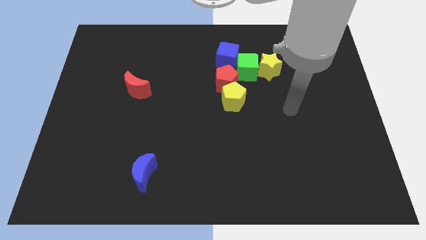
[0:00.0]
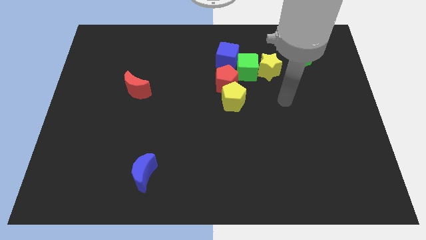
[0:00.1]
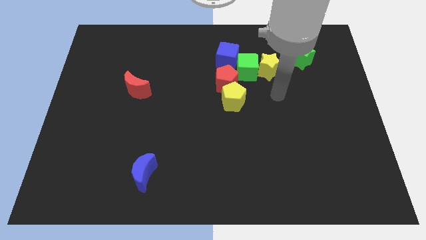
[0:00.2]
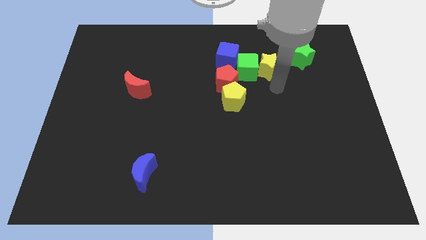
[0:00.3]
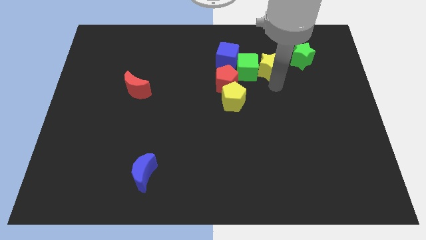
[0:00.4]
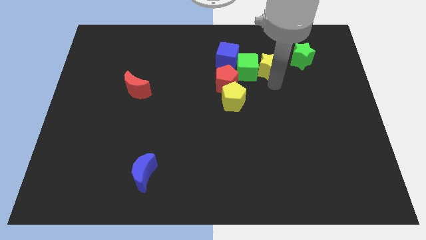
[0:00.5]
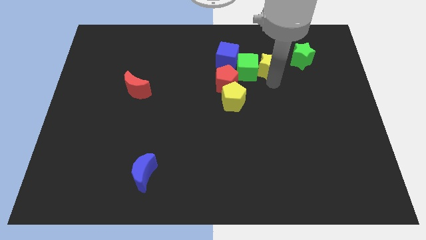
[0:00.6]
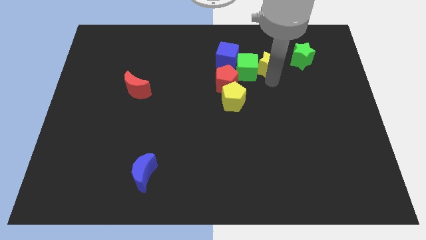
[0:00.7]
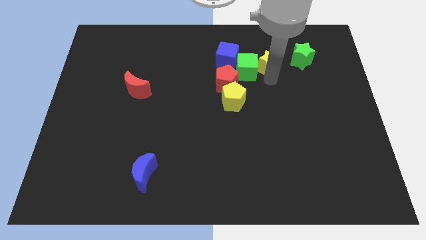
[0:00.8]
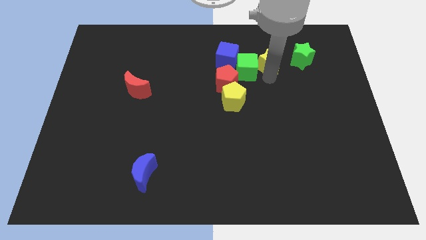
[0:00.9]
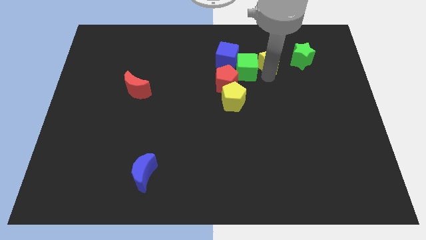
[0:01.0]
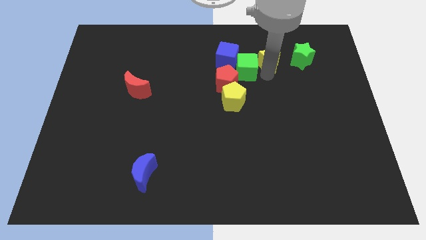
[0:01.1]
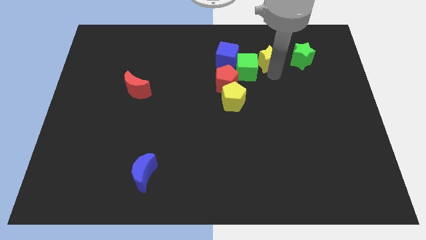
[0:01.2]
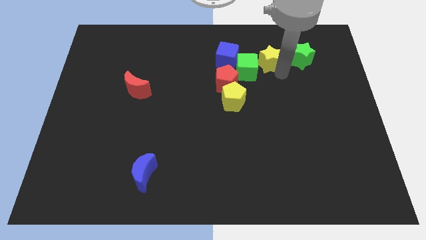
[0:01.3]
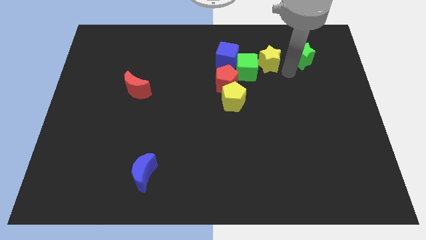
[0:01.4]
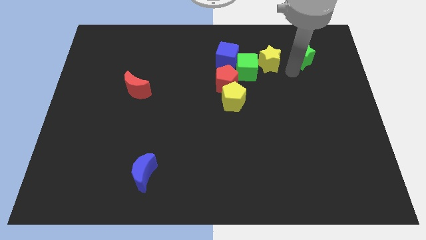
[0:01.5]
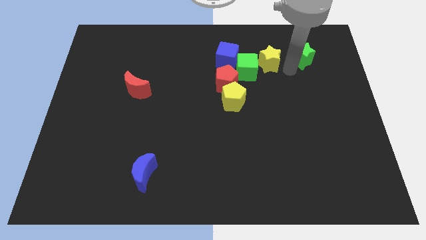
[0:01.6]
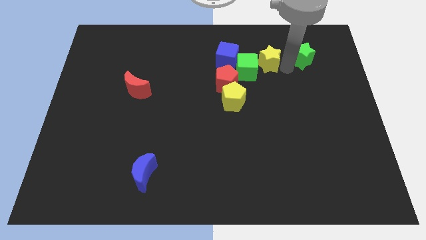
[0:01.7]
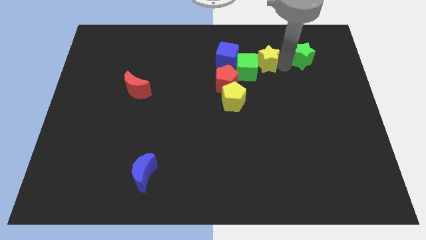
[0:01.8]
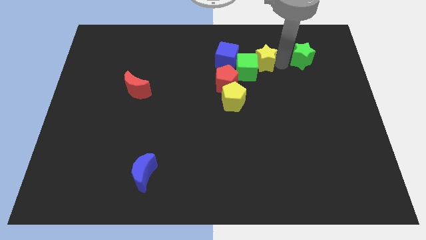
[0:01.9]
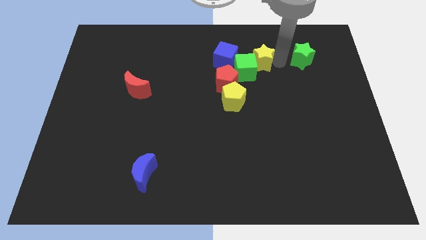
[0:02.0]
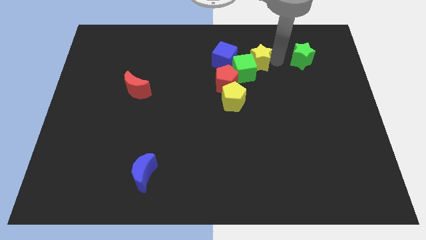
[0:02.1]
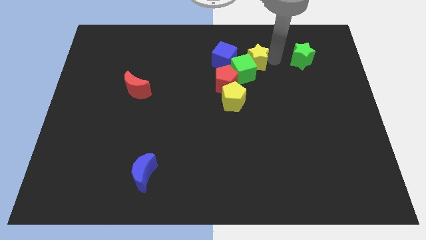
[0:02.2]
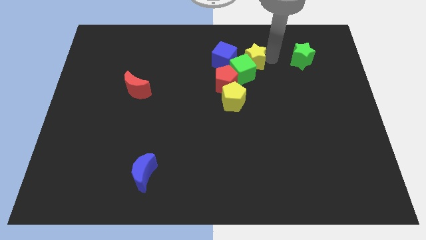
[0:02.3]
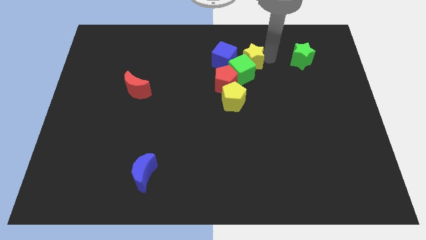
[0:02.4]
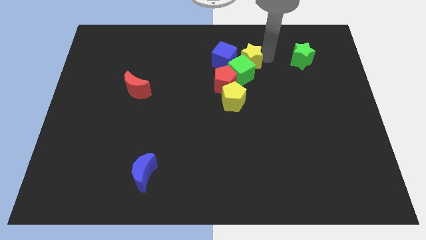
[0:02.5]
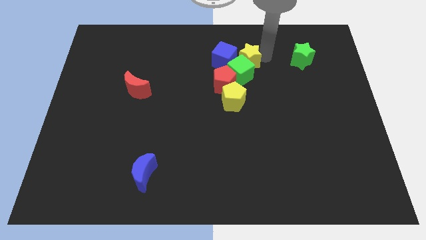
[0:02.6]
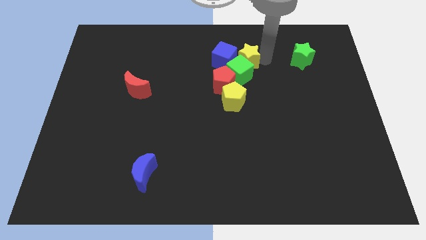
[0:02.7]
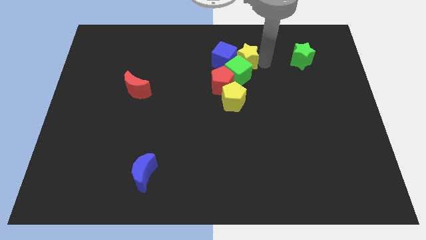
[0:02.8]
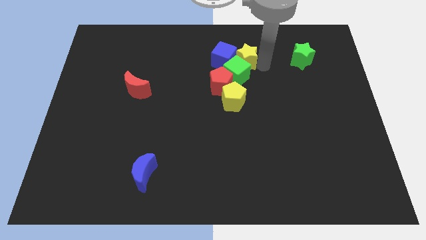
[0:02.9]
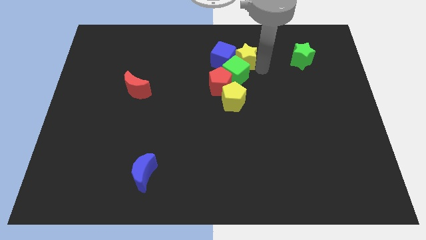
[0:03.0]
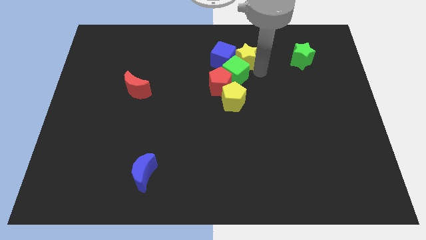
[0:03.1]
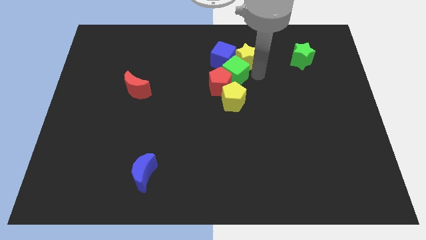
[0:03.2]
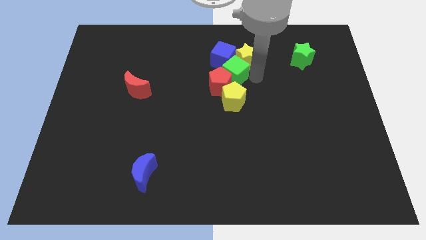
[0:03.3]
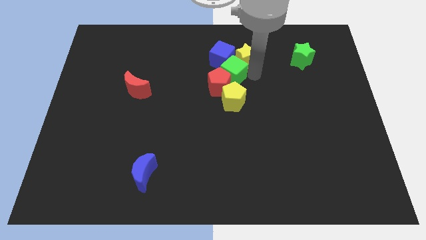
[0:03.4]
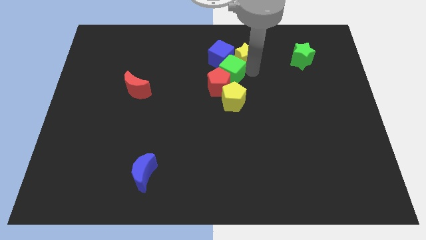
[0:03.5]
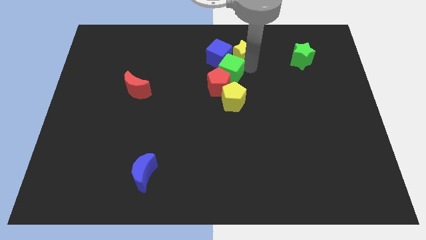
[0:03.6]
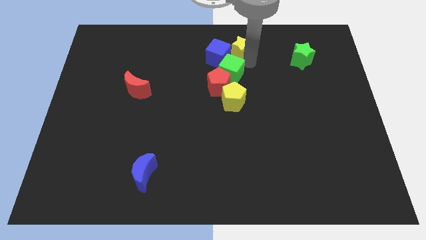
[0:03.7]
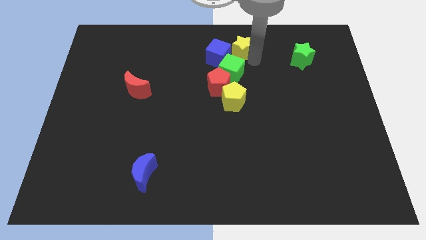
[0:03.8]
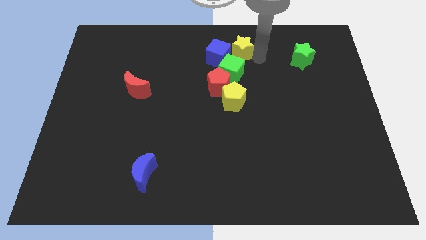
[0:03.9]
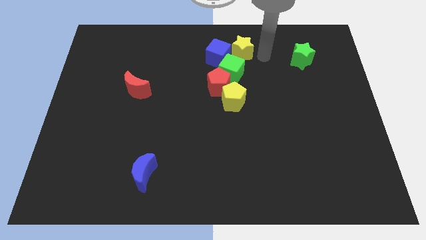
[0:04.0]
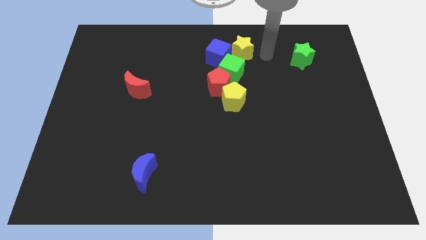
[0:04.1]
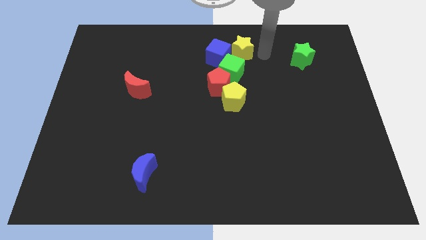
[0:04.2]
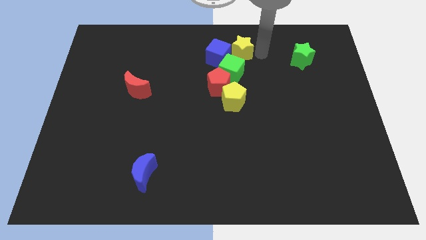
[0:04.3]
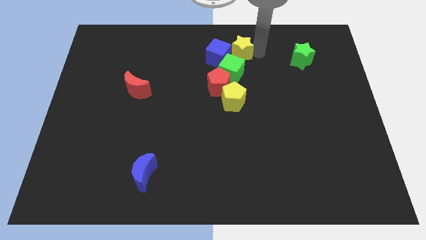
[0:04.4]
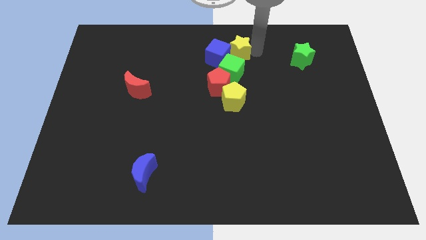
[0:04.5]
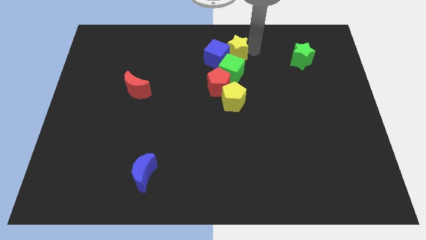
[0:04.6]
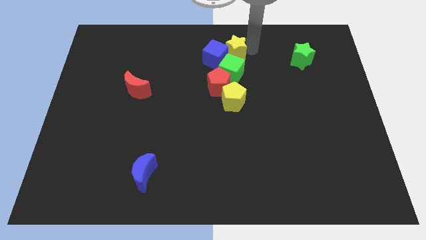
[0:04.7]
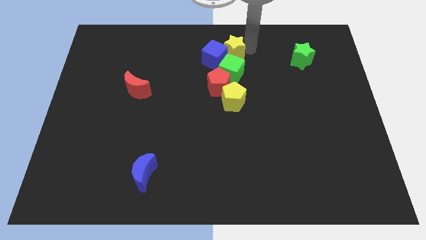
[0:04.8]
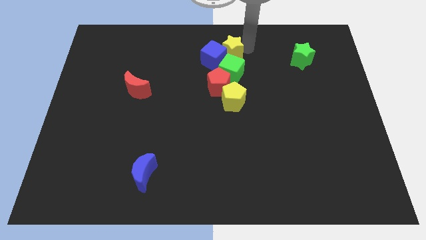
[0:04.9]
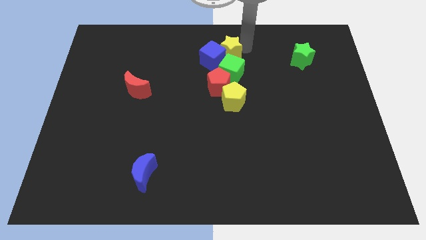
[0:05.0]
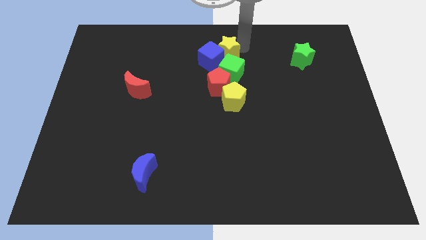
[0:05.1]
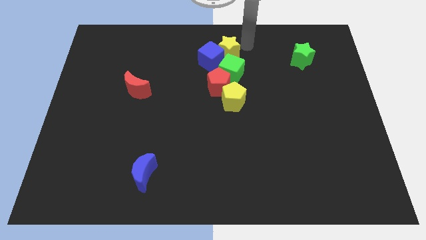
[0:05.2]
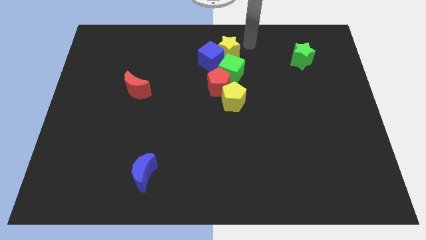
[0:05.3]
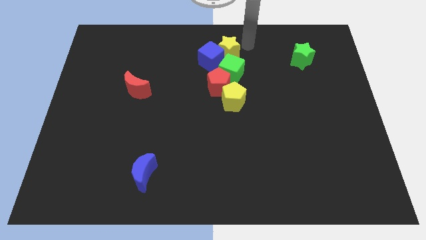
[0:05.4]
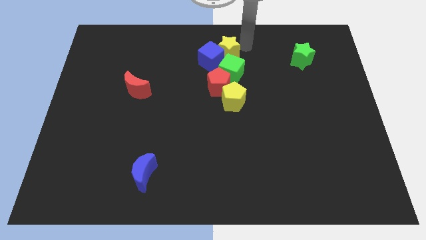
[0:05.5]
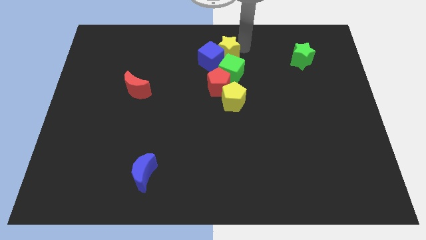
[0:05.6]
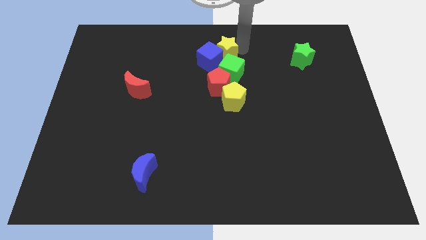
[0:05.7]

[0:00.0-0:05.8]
put the yellow star to the top left side of the green cube

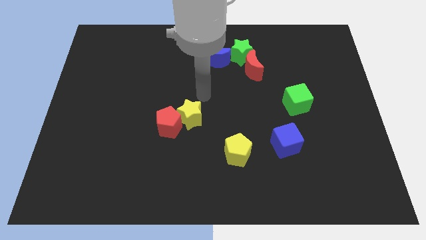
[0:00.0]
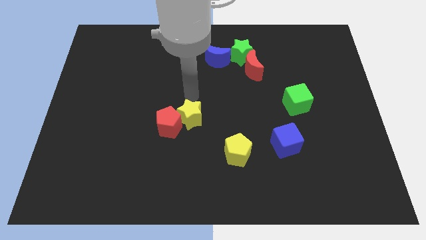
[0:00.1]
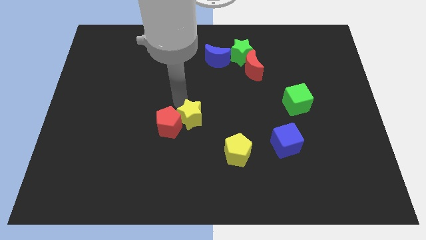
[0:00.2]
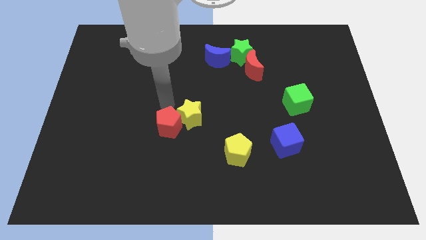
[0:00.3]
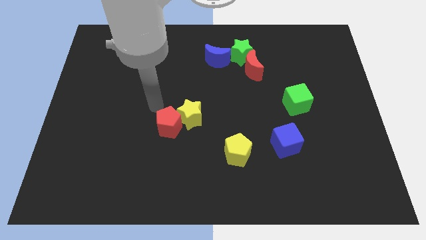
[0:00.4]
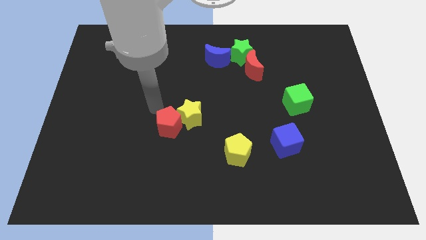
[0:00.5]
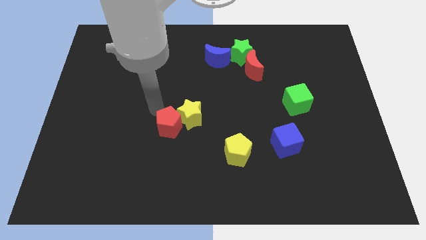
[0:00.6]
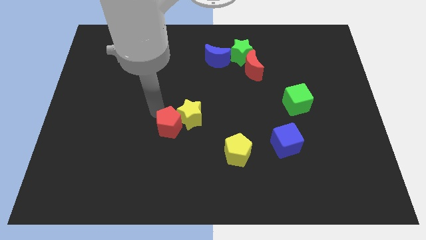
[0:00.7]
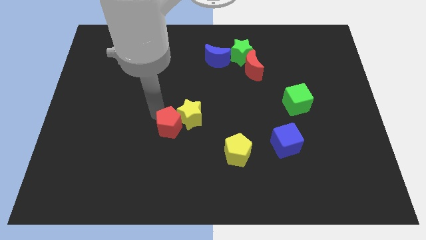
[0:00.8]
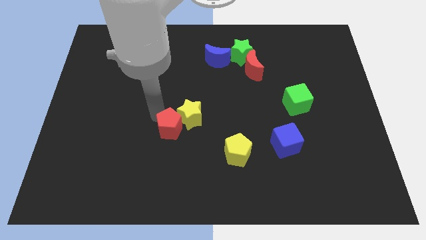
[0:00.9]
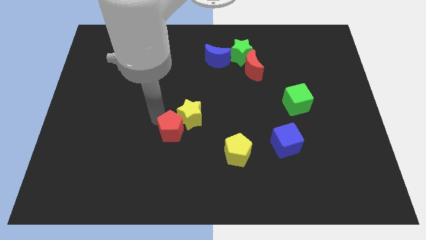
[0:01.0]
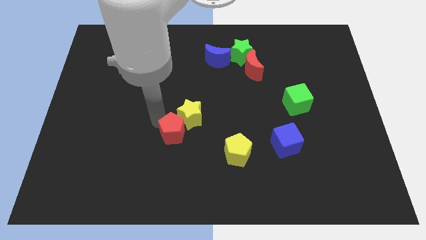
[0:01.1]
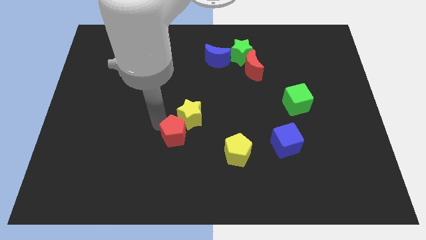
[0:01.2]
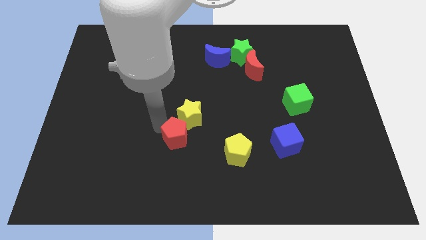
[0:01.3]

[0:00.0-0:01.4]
slide the red pentagon to the left of the yellow pentagon
